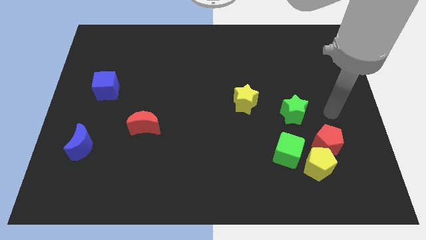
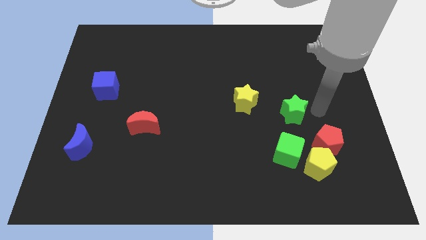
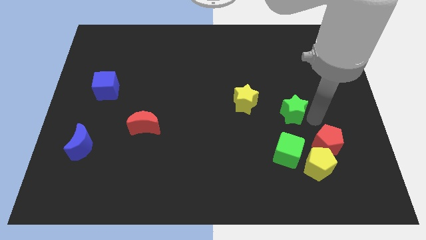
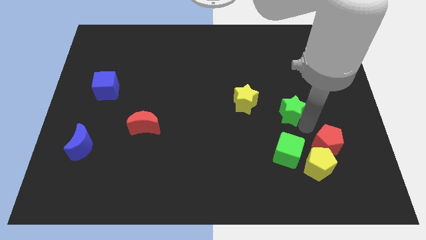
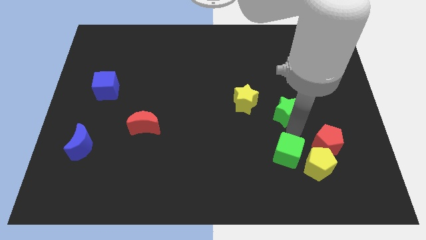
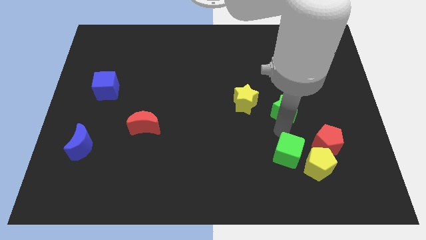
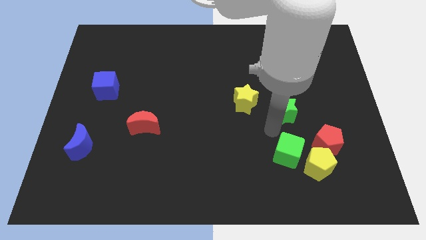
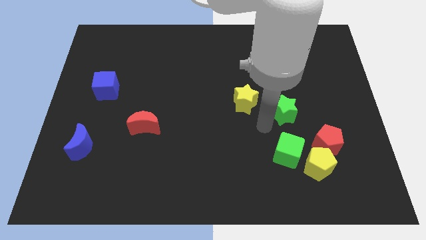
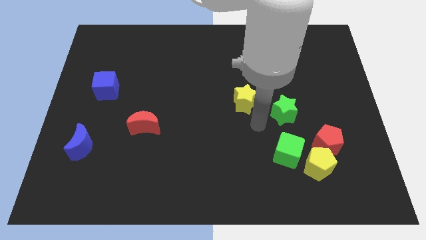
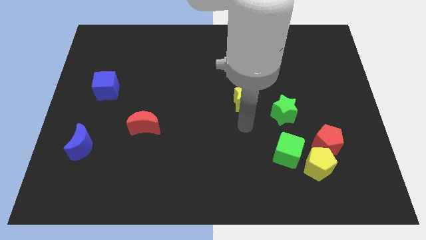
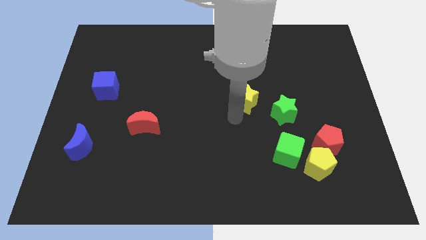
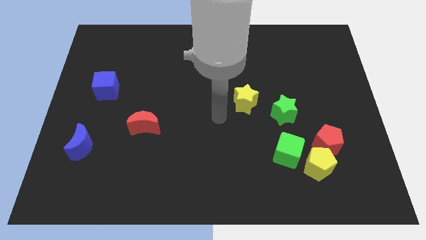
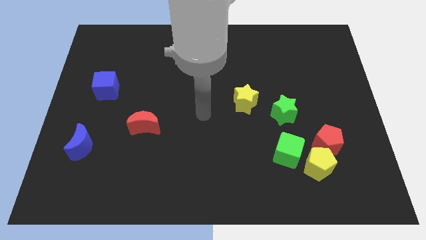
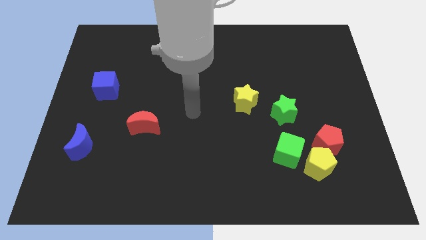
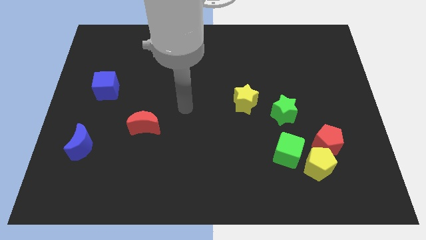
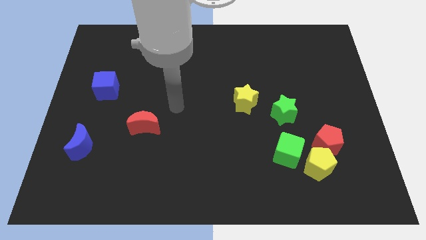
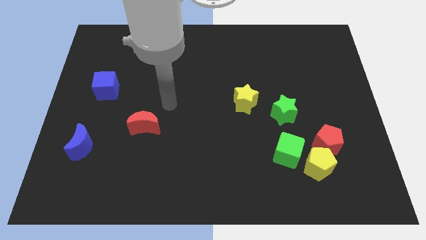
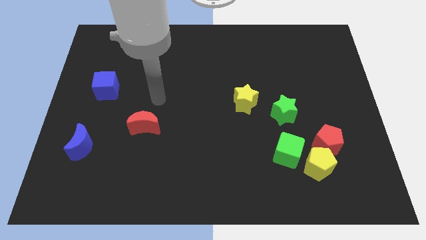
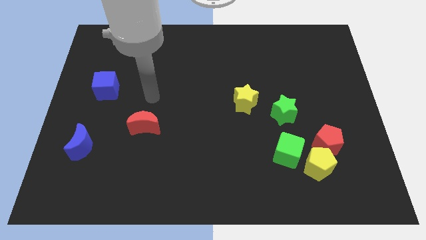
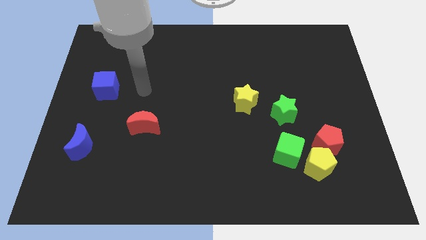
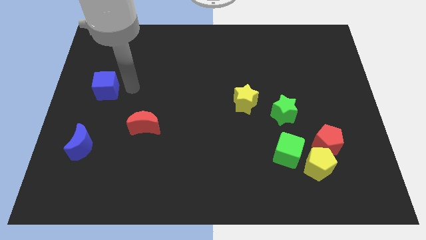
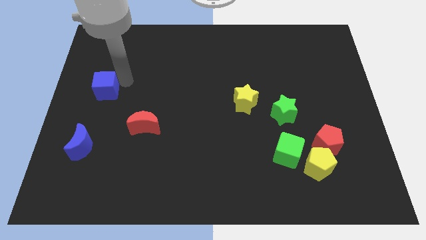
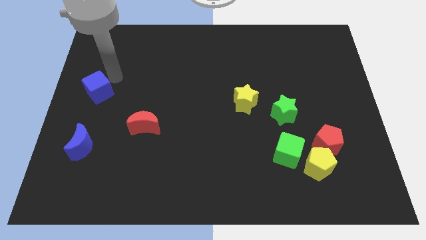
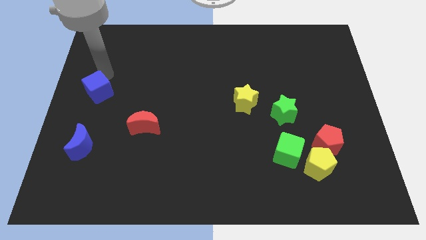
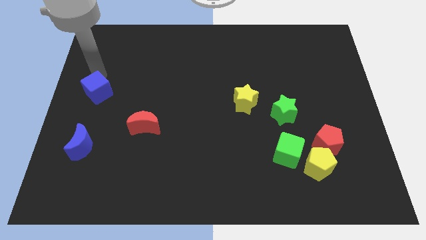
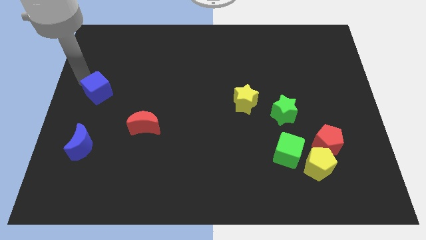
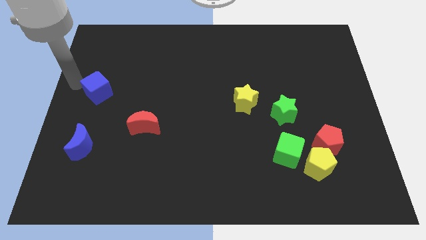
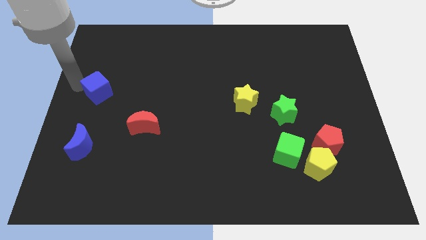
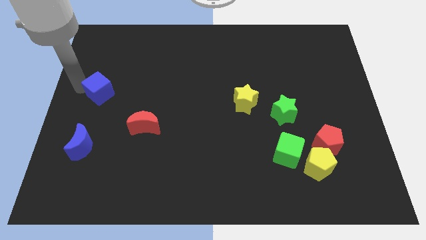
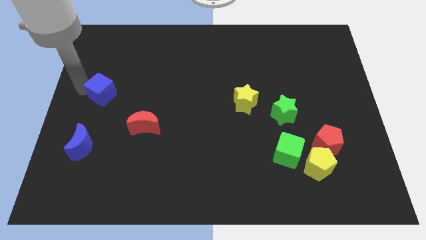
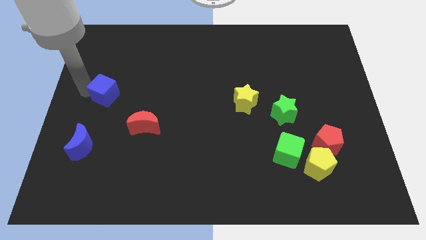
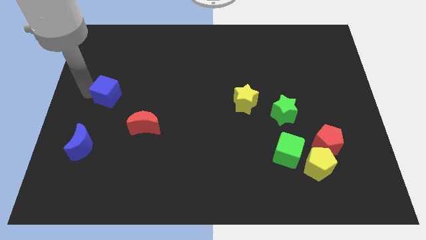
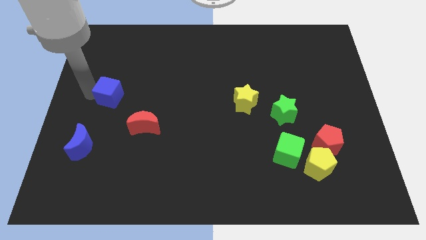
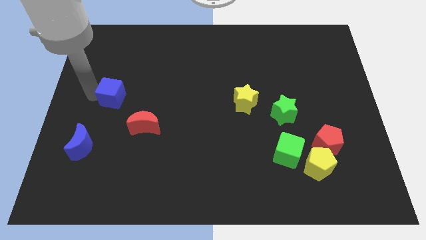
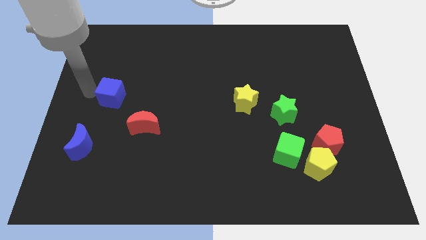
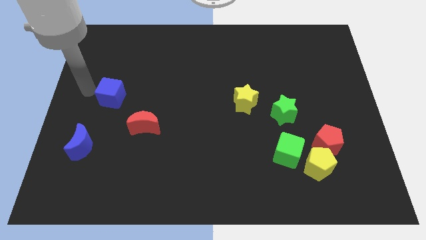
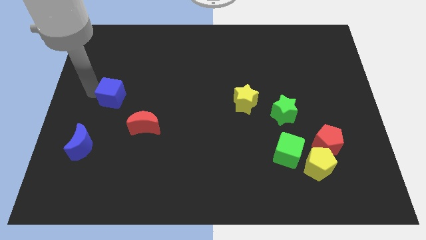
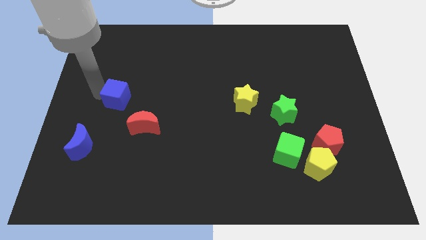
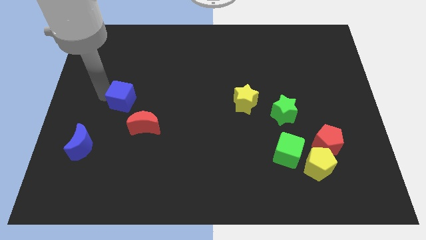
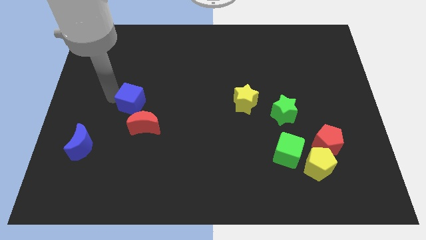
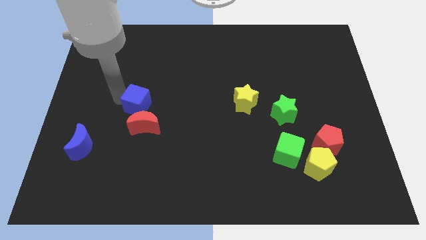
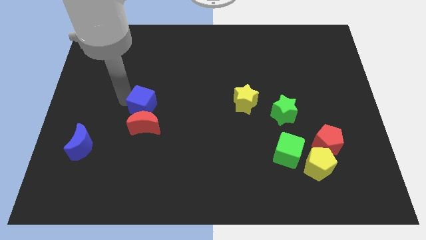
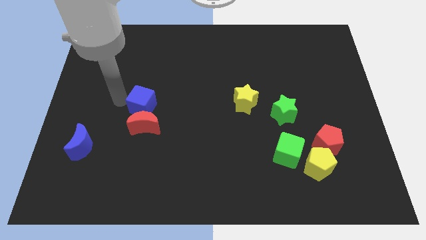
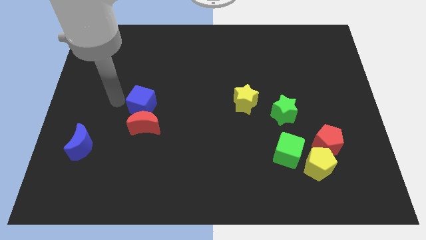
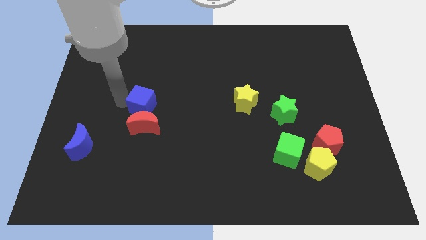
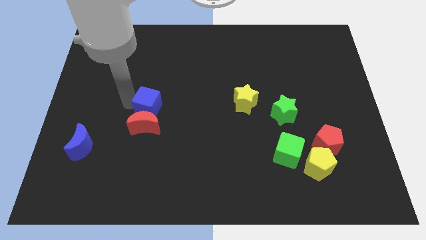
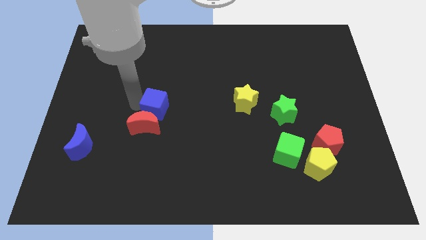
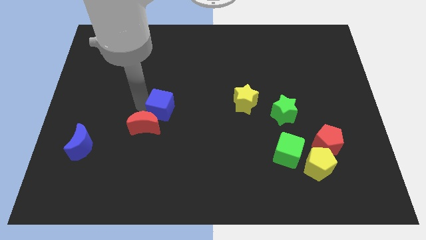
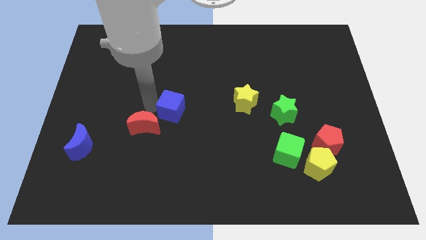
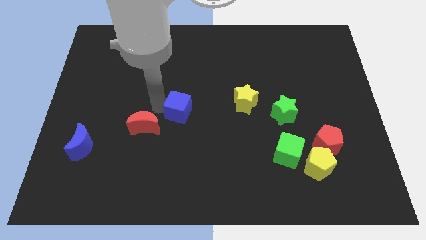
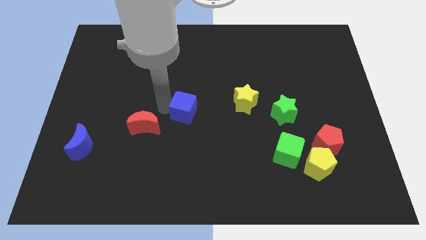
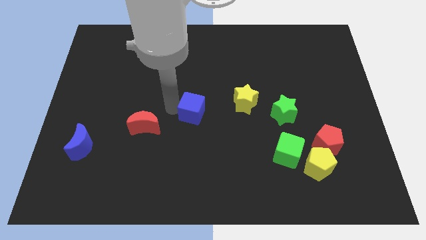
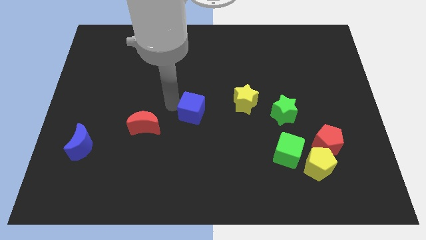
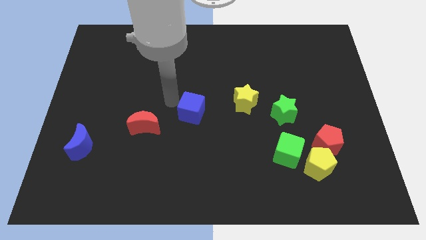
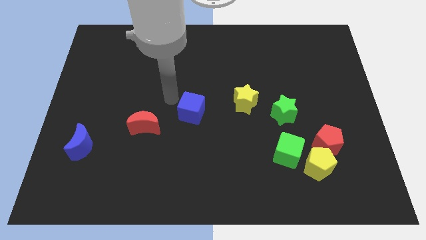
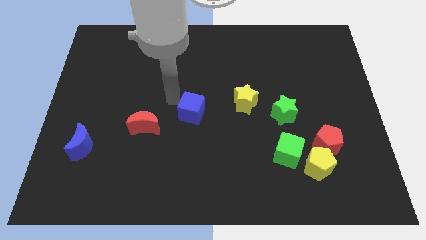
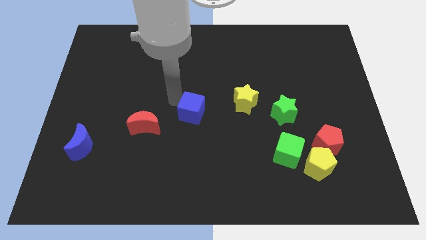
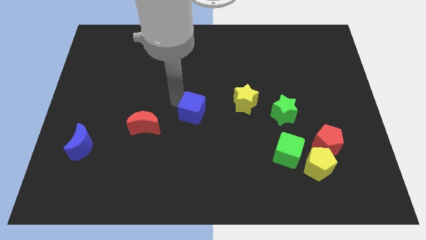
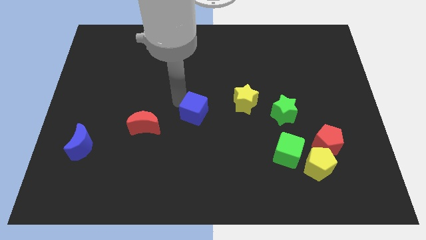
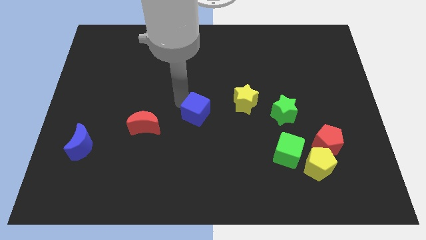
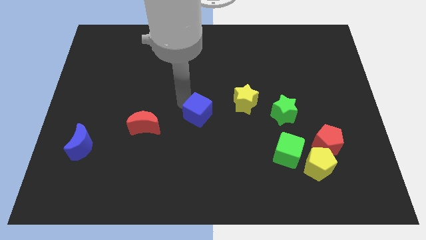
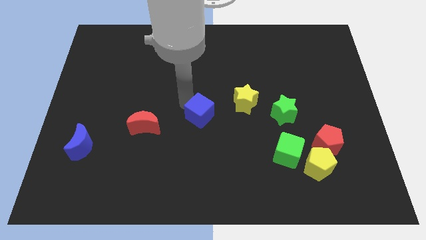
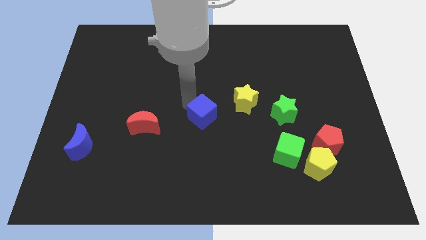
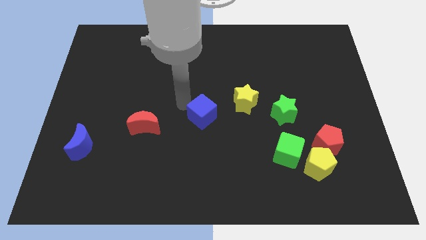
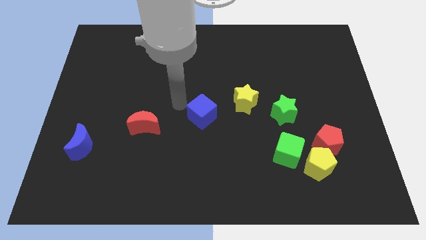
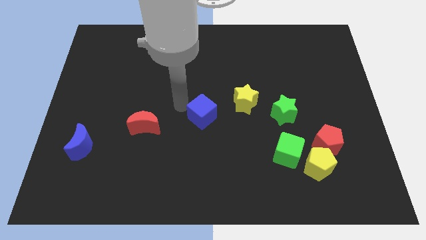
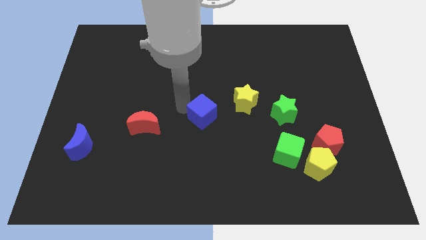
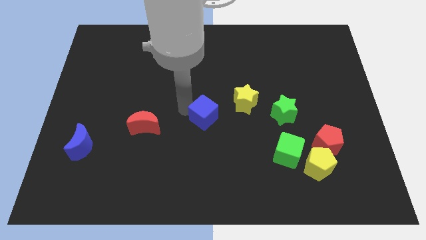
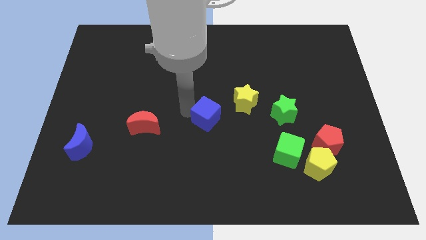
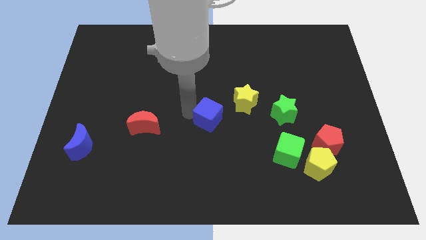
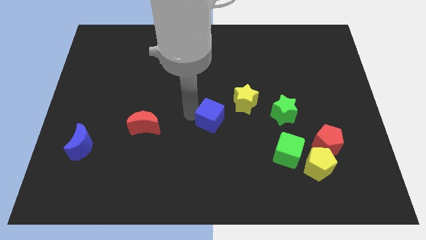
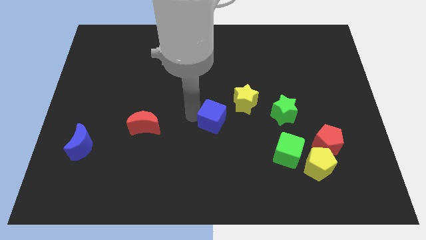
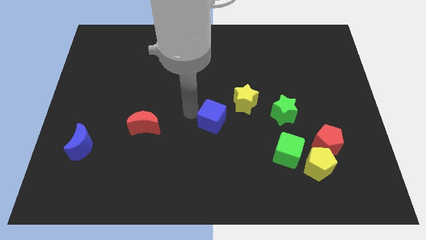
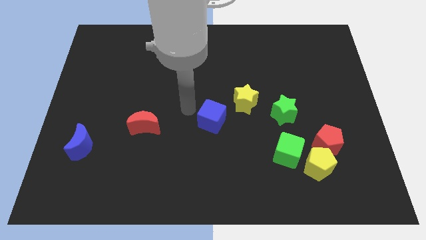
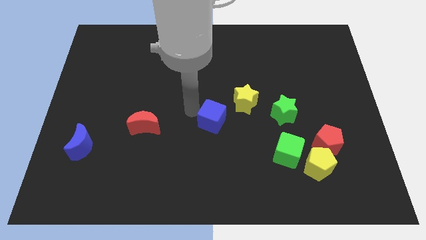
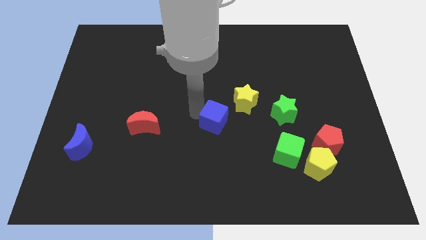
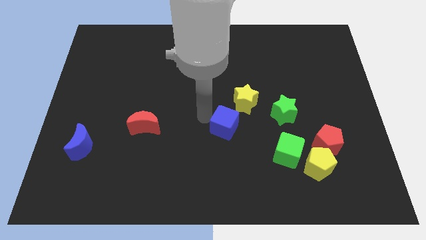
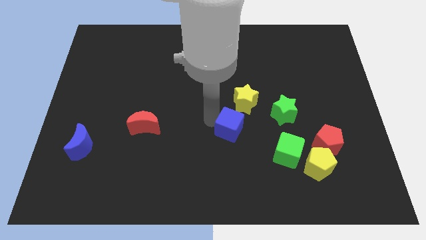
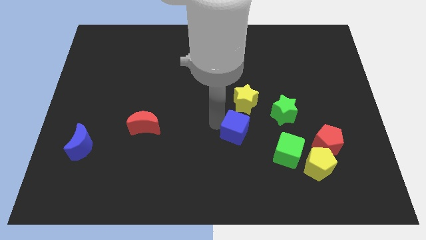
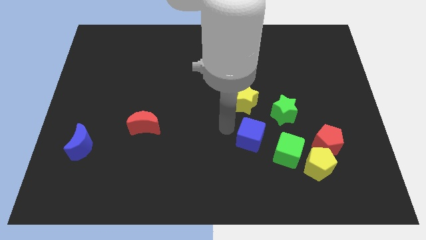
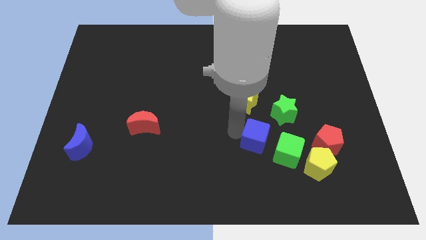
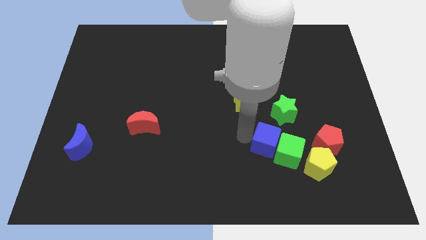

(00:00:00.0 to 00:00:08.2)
put the blue cube diagonally up and to the left of the yellow pentagon
